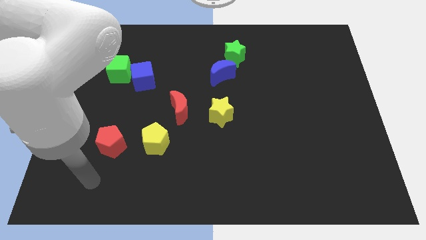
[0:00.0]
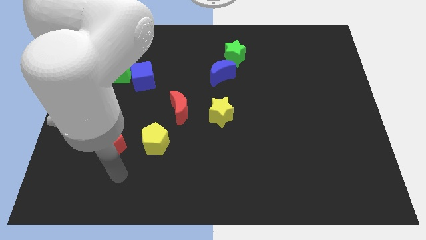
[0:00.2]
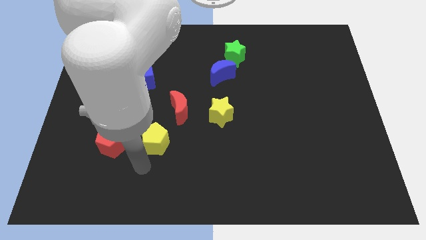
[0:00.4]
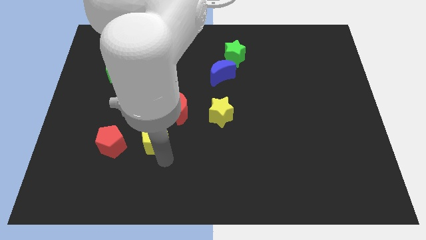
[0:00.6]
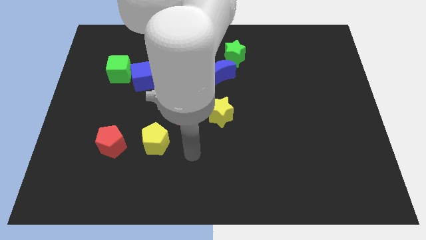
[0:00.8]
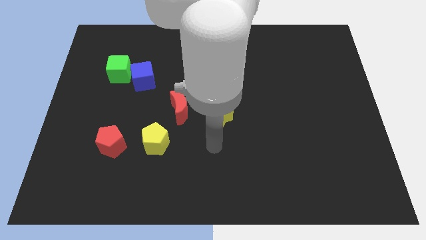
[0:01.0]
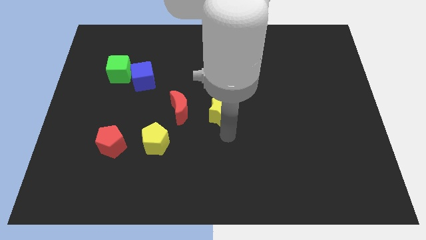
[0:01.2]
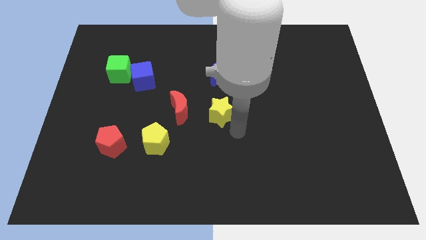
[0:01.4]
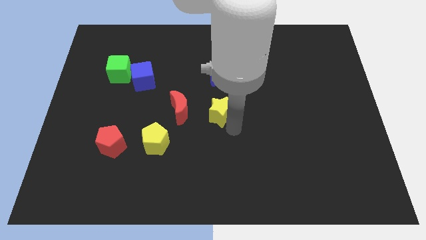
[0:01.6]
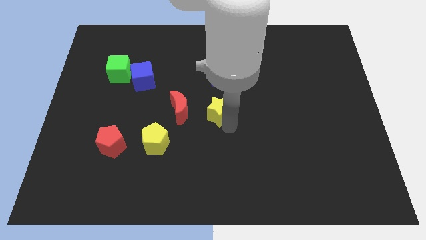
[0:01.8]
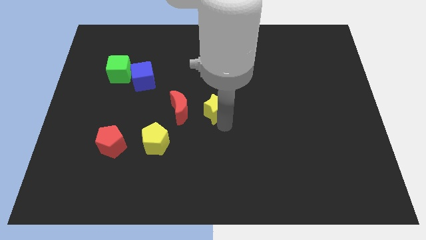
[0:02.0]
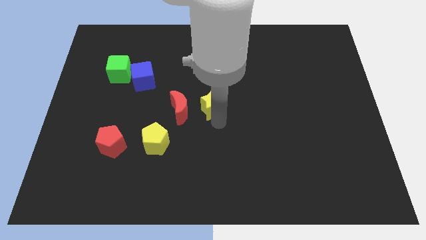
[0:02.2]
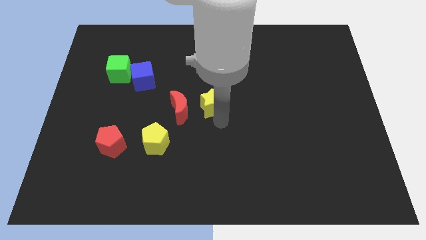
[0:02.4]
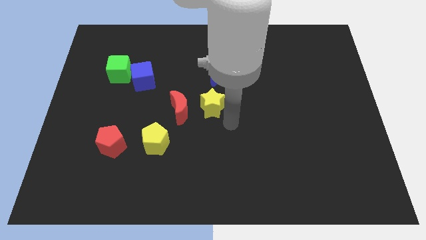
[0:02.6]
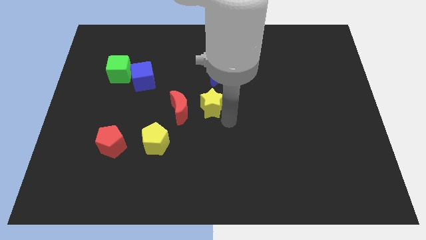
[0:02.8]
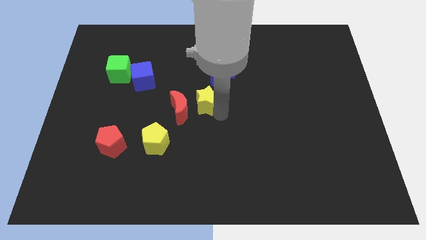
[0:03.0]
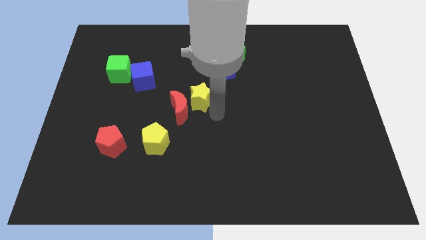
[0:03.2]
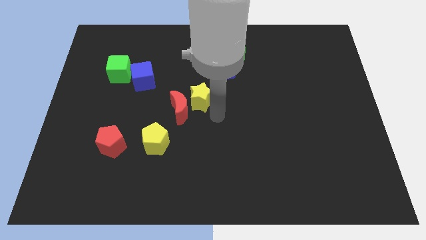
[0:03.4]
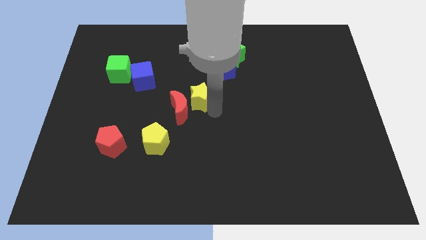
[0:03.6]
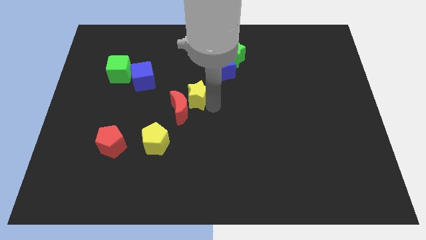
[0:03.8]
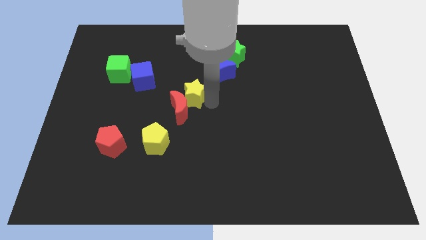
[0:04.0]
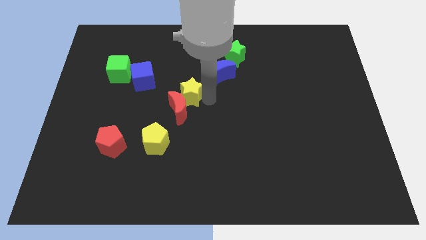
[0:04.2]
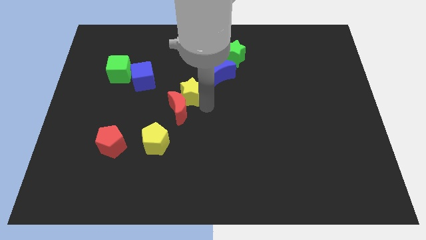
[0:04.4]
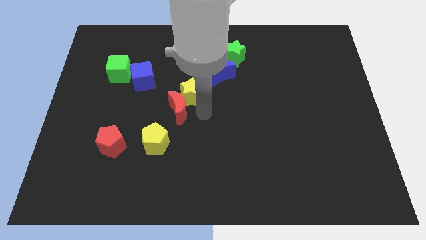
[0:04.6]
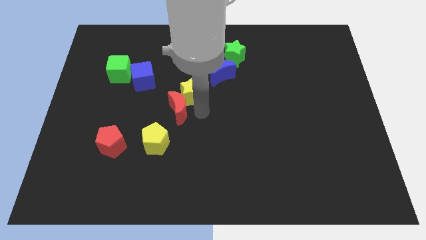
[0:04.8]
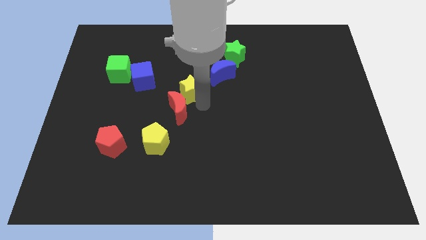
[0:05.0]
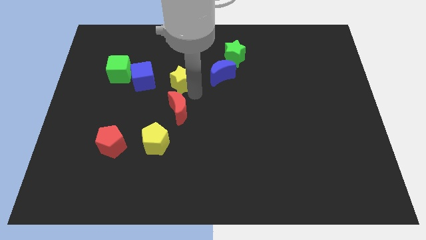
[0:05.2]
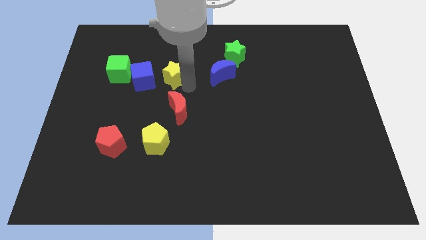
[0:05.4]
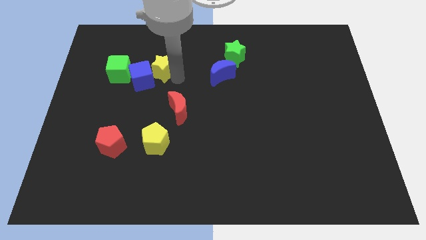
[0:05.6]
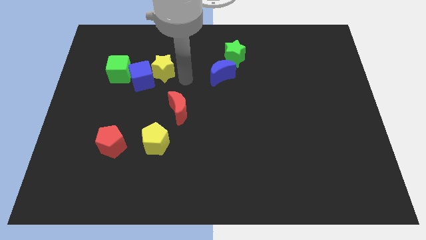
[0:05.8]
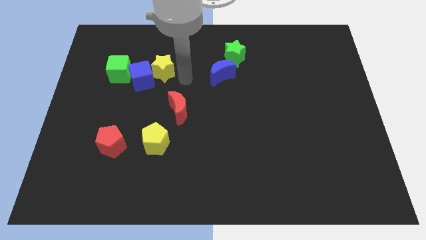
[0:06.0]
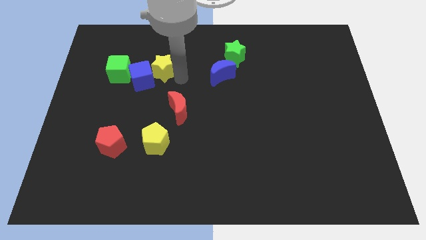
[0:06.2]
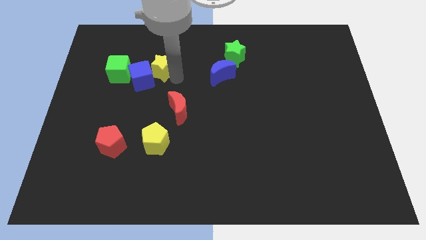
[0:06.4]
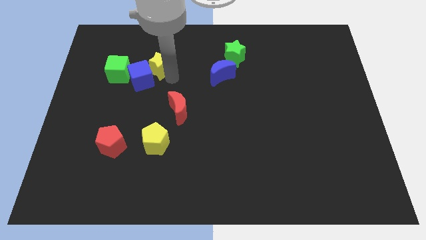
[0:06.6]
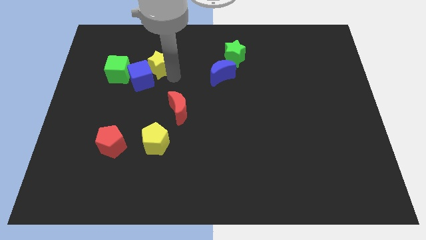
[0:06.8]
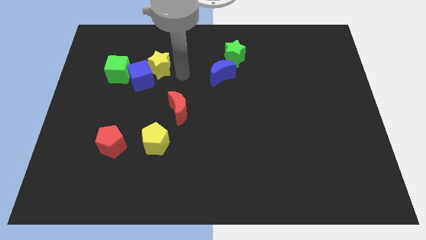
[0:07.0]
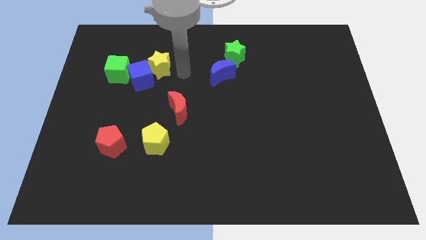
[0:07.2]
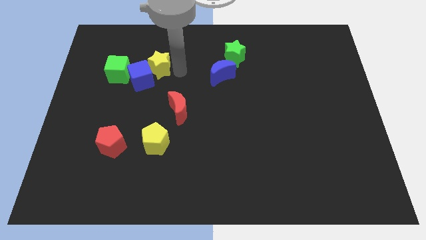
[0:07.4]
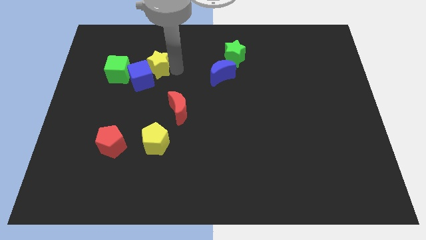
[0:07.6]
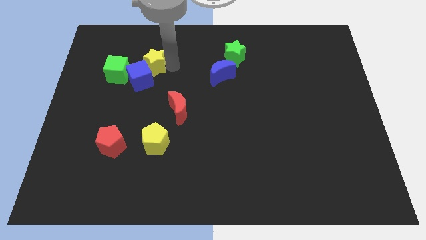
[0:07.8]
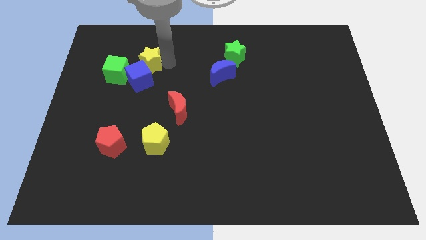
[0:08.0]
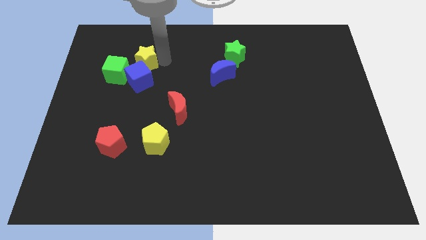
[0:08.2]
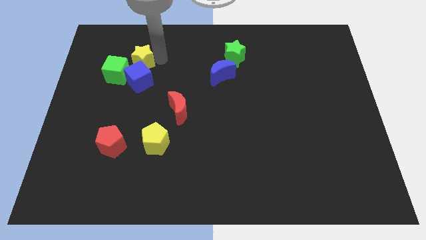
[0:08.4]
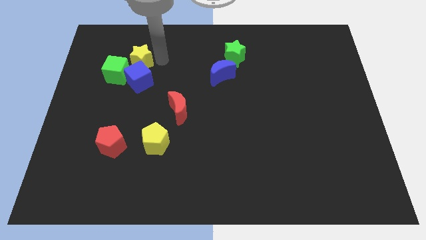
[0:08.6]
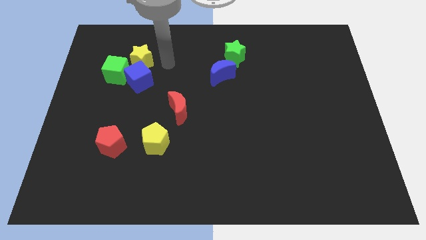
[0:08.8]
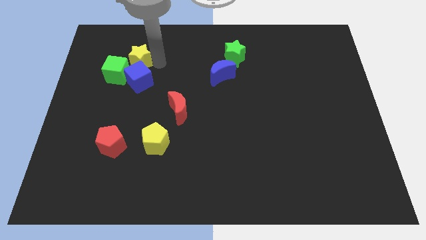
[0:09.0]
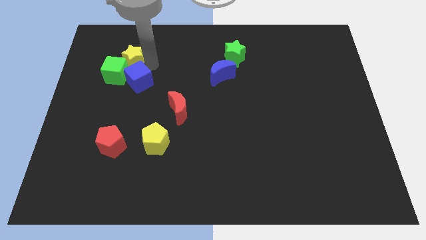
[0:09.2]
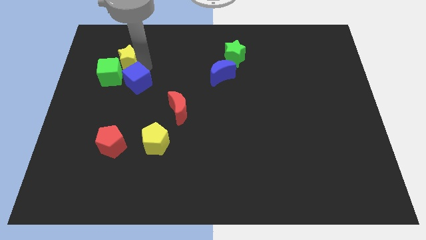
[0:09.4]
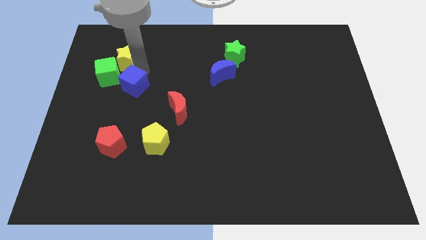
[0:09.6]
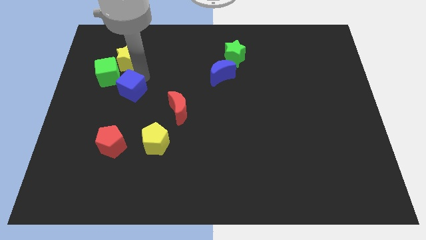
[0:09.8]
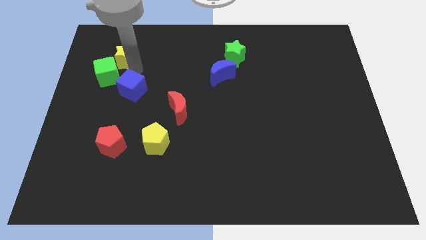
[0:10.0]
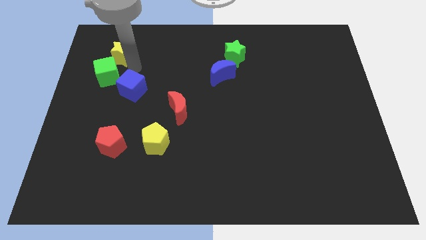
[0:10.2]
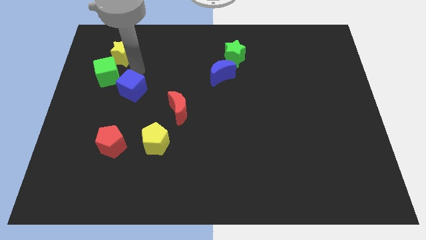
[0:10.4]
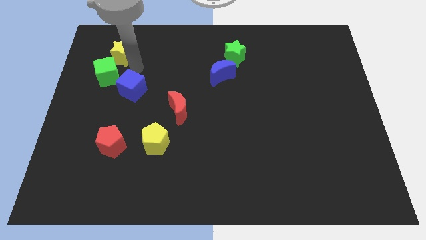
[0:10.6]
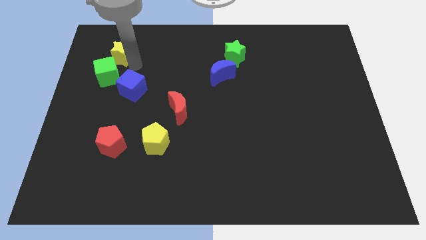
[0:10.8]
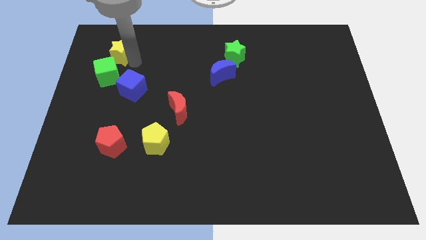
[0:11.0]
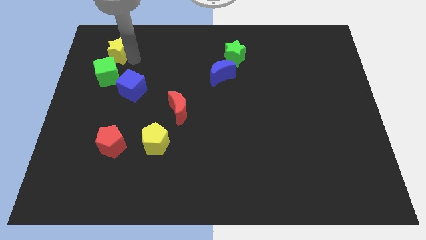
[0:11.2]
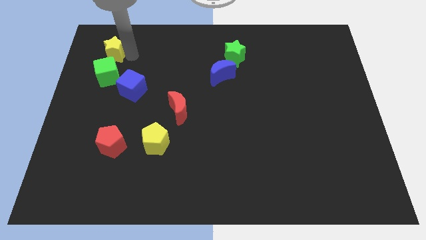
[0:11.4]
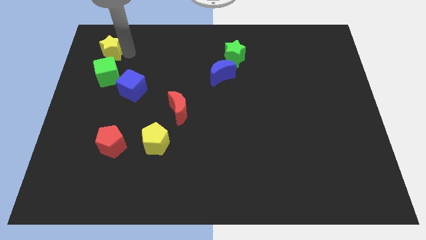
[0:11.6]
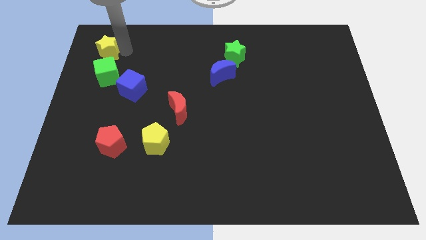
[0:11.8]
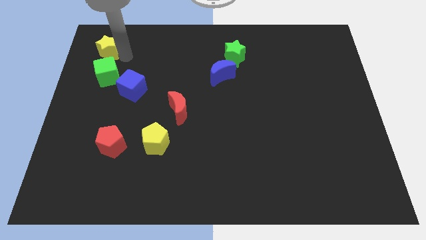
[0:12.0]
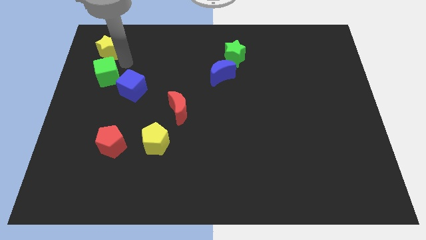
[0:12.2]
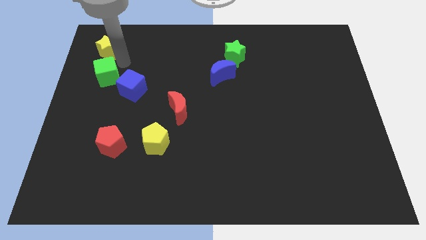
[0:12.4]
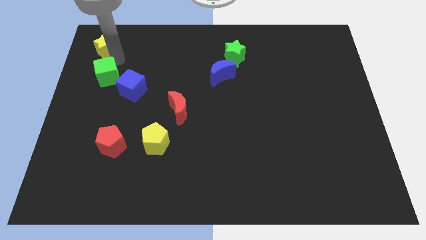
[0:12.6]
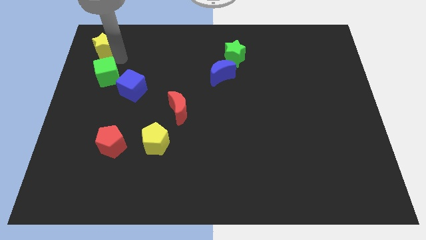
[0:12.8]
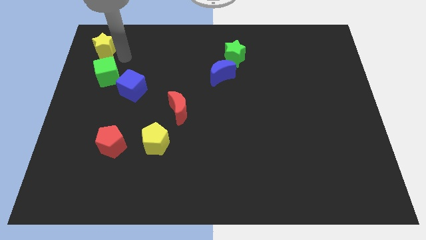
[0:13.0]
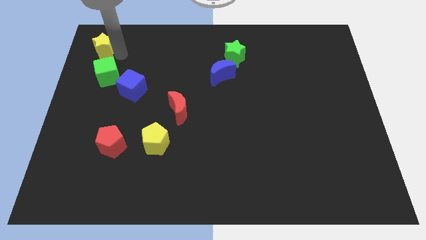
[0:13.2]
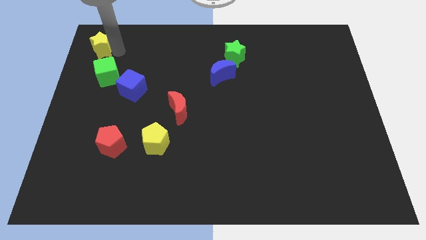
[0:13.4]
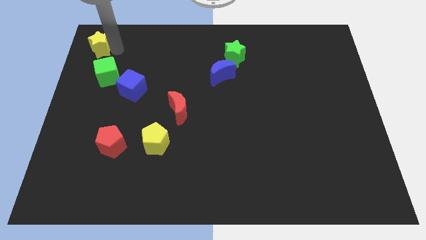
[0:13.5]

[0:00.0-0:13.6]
move the yellow star to the top left corner
